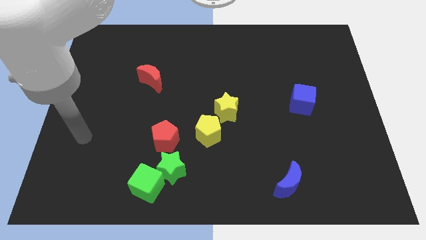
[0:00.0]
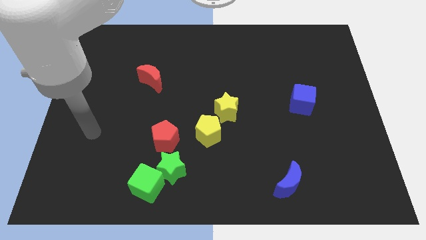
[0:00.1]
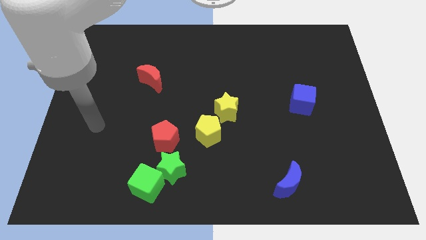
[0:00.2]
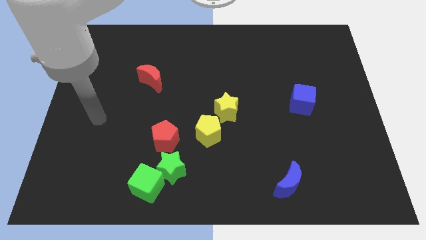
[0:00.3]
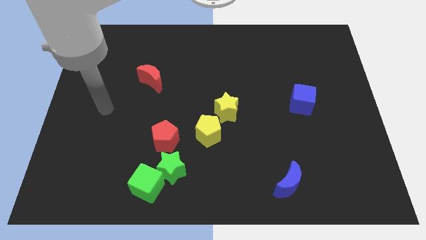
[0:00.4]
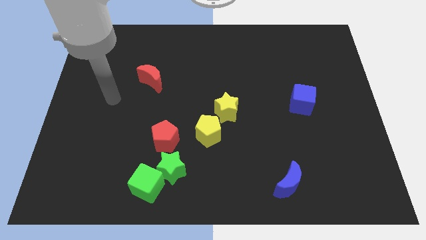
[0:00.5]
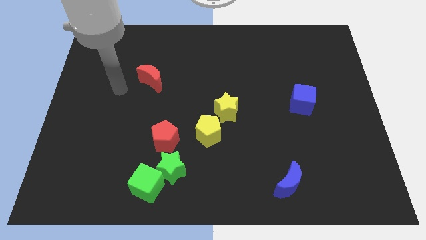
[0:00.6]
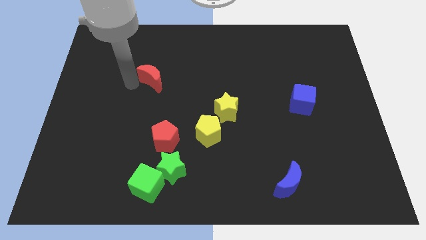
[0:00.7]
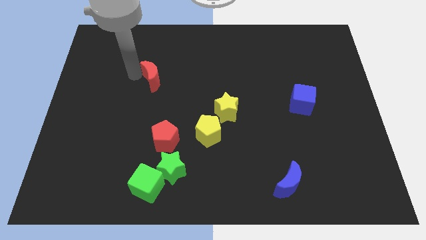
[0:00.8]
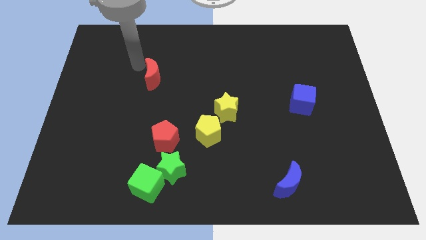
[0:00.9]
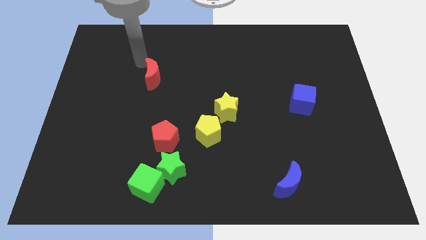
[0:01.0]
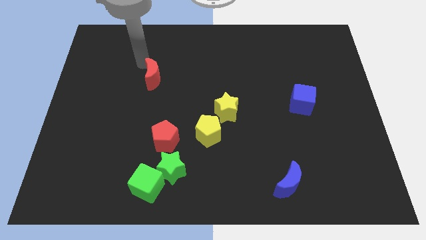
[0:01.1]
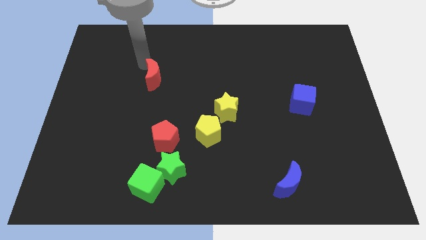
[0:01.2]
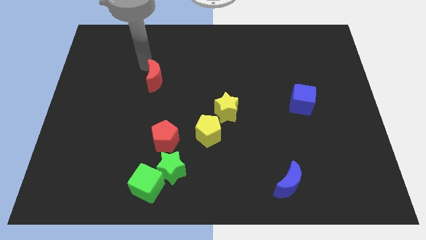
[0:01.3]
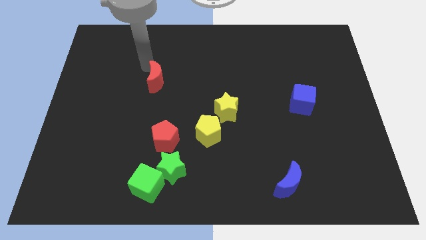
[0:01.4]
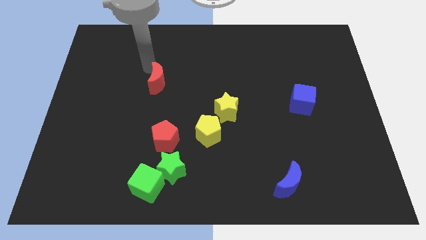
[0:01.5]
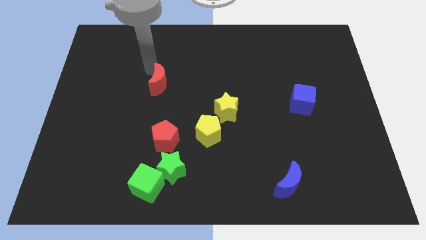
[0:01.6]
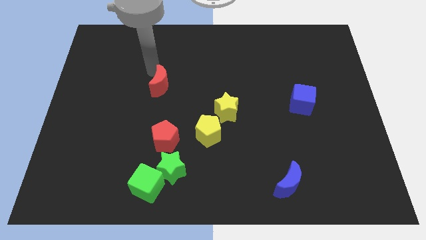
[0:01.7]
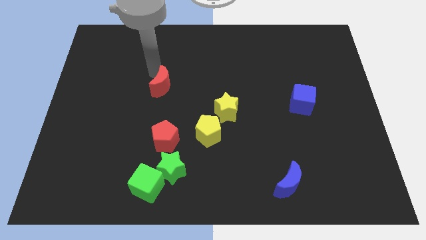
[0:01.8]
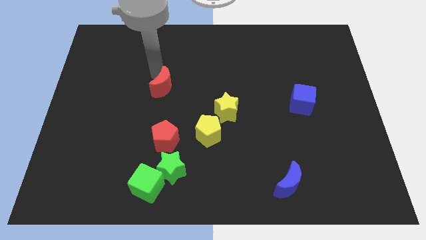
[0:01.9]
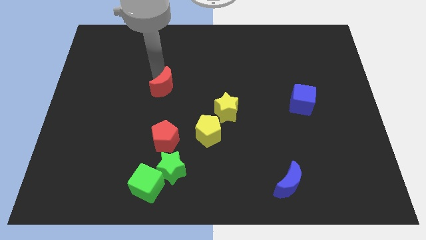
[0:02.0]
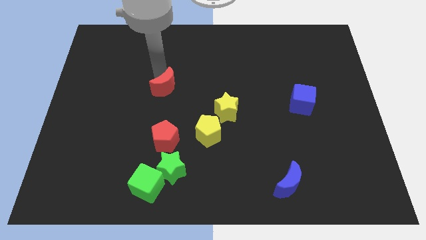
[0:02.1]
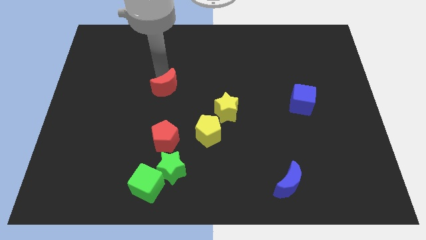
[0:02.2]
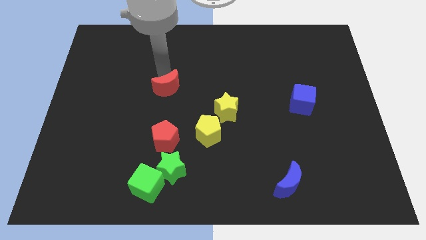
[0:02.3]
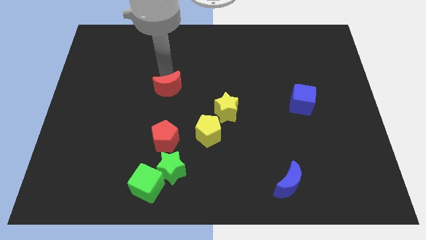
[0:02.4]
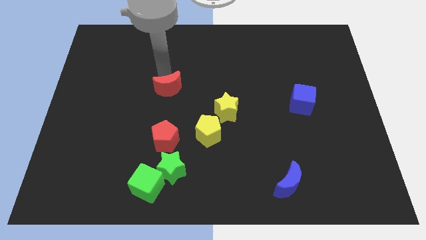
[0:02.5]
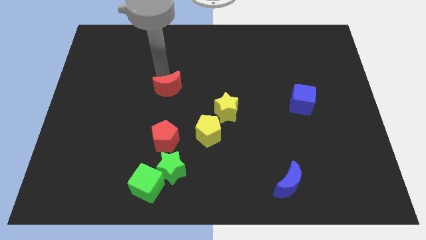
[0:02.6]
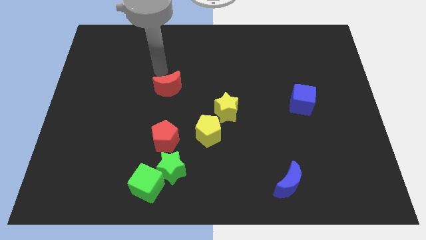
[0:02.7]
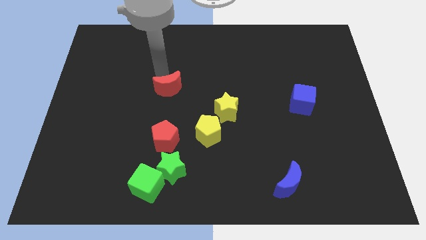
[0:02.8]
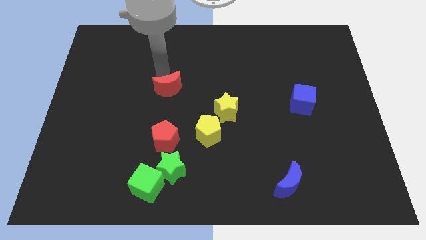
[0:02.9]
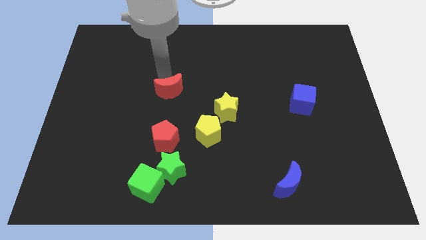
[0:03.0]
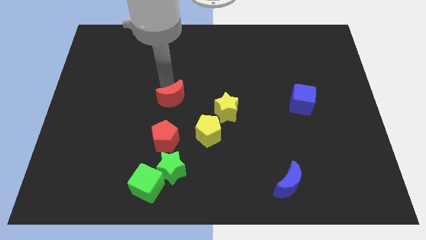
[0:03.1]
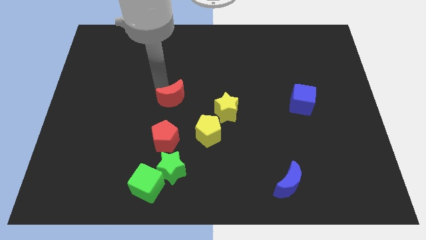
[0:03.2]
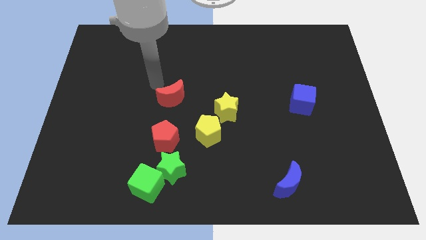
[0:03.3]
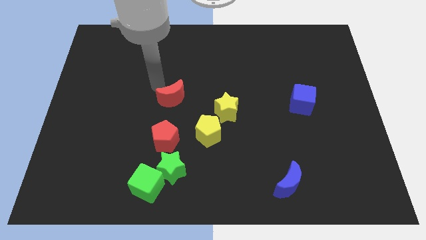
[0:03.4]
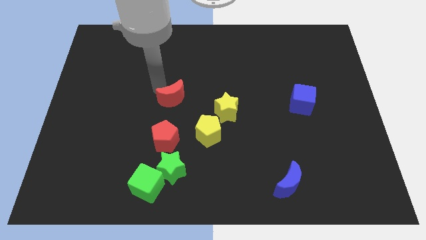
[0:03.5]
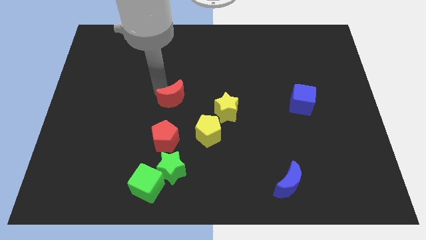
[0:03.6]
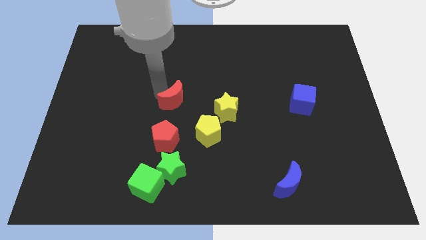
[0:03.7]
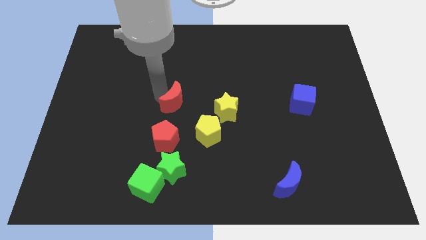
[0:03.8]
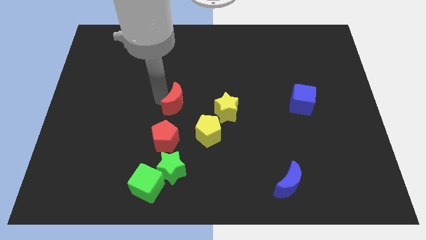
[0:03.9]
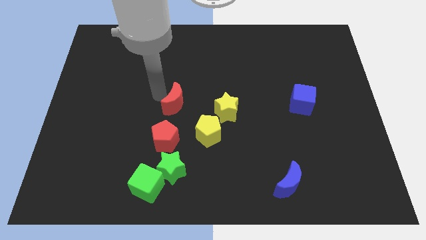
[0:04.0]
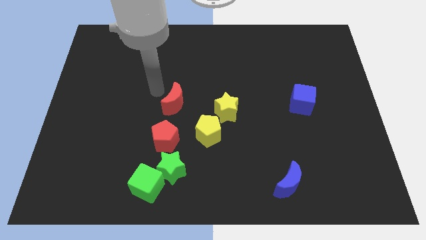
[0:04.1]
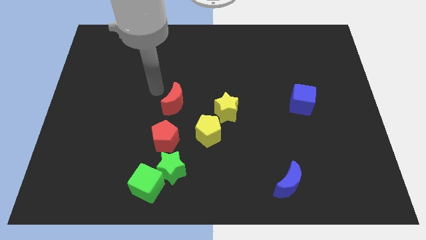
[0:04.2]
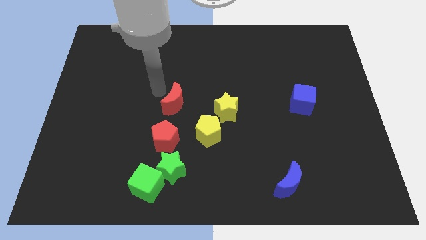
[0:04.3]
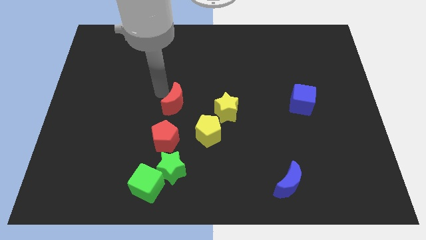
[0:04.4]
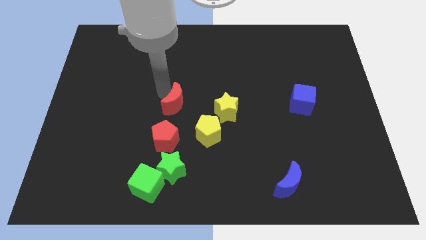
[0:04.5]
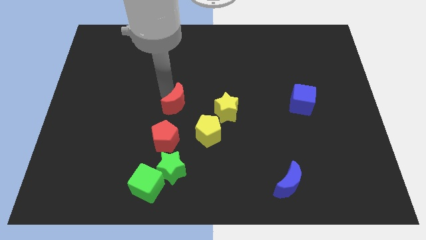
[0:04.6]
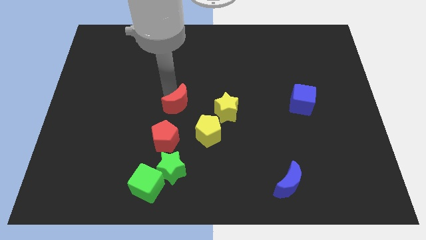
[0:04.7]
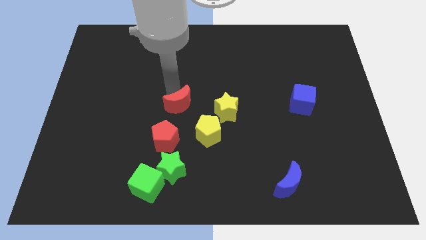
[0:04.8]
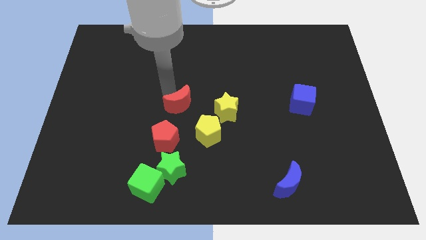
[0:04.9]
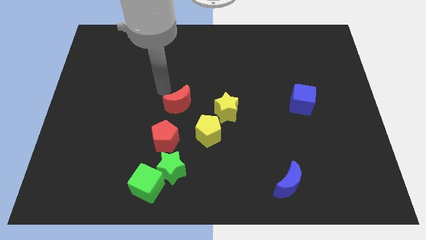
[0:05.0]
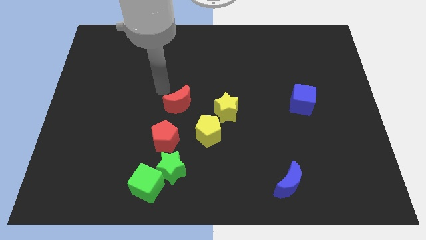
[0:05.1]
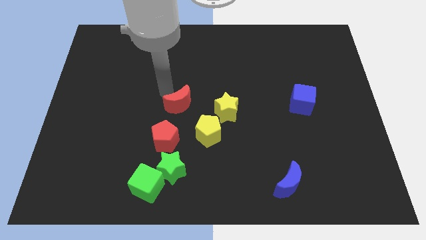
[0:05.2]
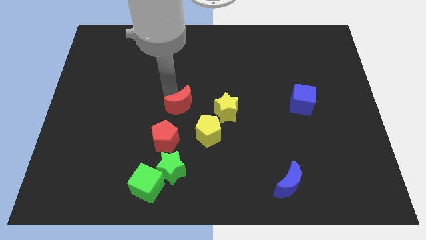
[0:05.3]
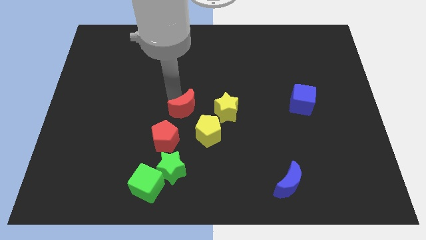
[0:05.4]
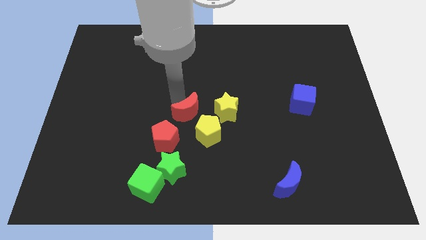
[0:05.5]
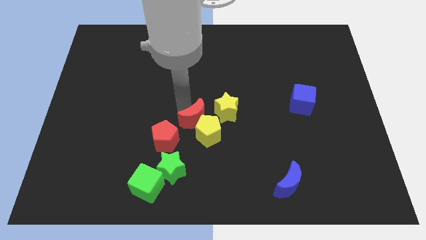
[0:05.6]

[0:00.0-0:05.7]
push the red moon towards the yellow pentagon

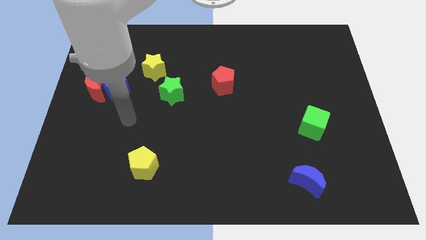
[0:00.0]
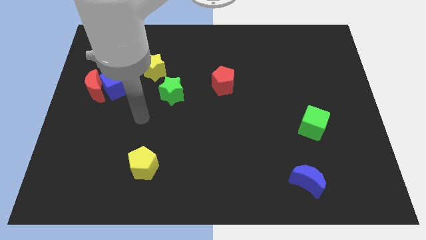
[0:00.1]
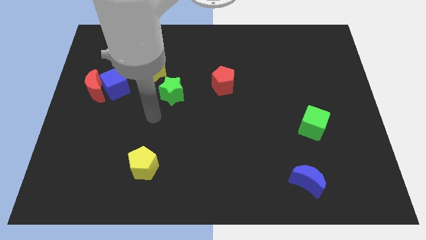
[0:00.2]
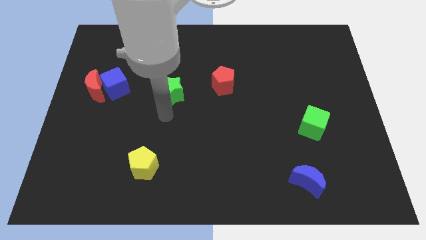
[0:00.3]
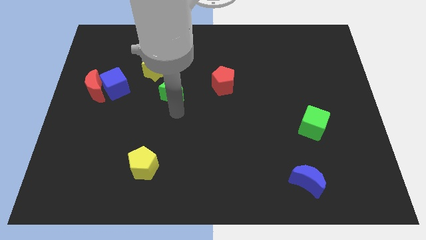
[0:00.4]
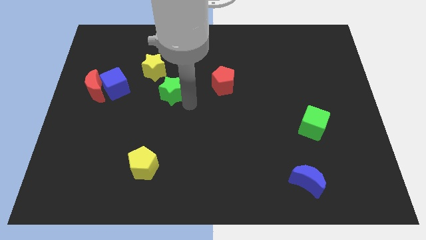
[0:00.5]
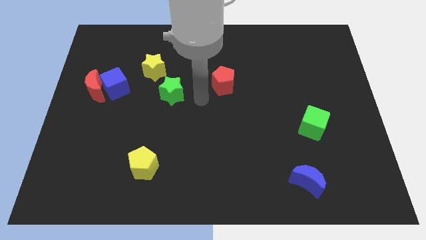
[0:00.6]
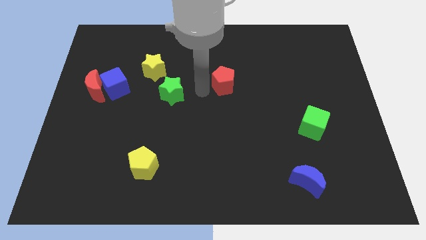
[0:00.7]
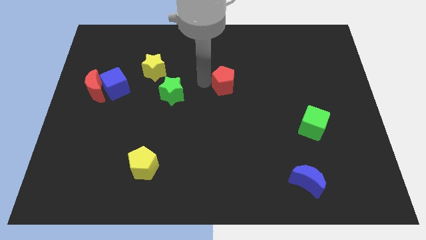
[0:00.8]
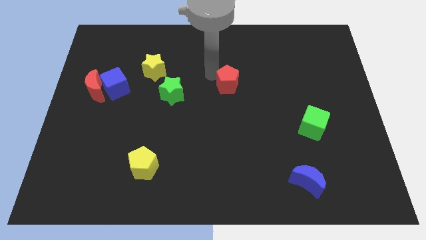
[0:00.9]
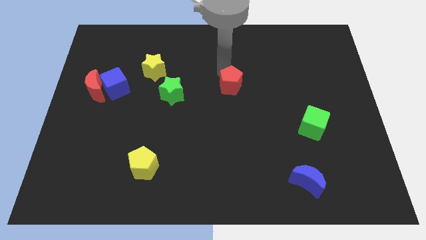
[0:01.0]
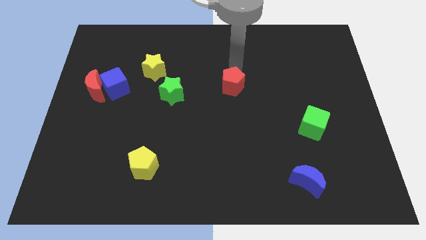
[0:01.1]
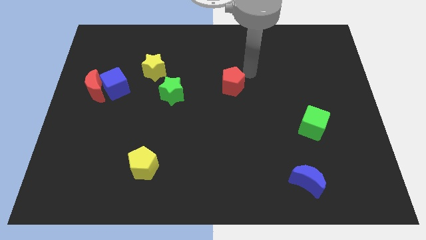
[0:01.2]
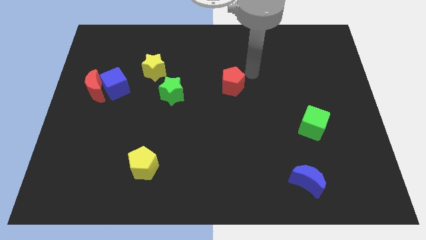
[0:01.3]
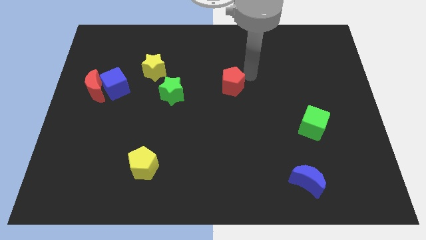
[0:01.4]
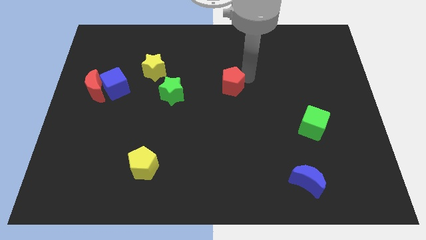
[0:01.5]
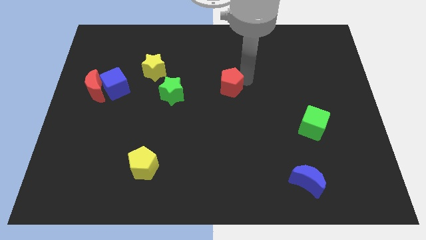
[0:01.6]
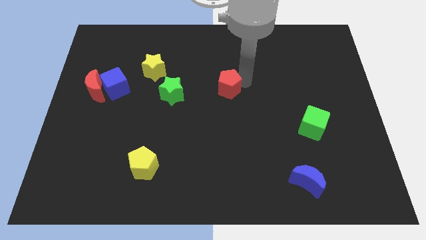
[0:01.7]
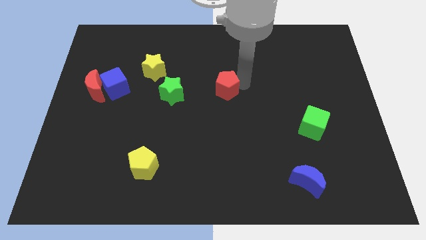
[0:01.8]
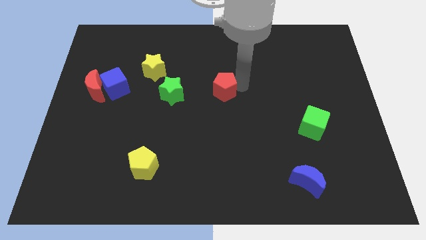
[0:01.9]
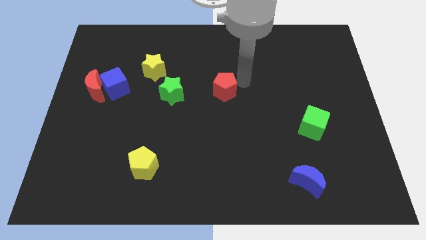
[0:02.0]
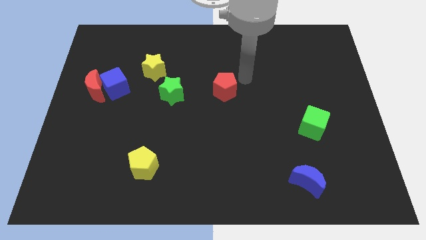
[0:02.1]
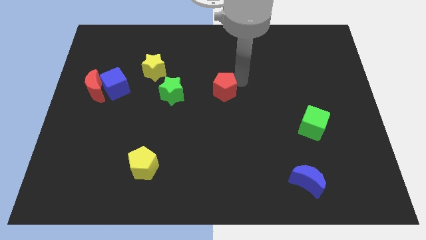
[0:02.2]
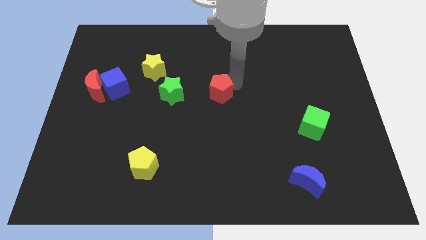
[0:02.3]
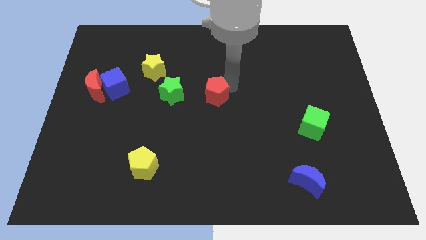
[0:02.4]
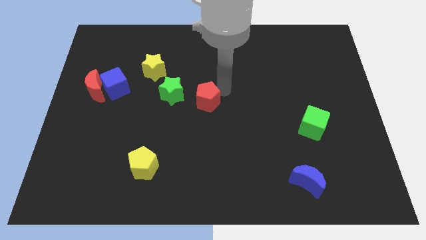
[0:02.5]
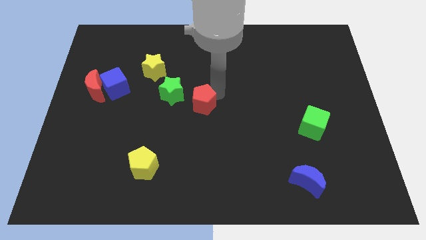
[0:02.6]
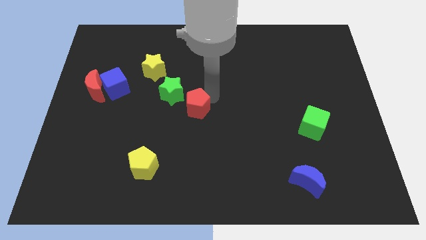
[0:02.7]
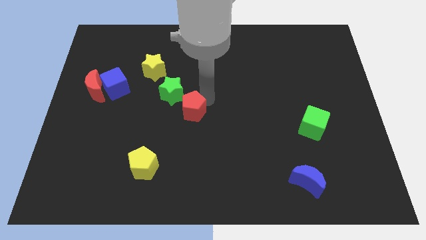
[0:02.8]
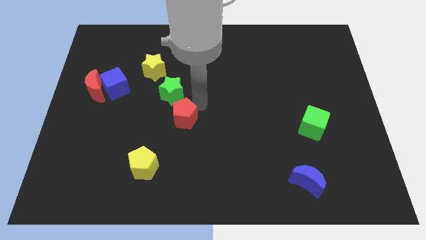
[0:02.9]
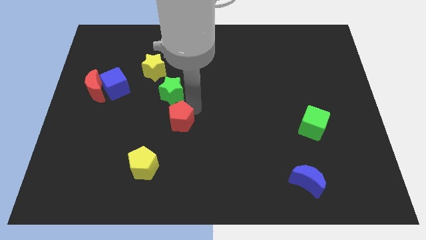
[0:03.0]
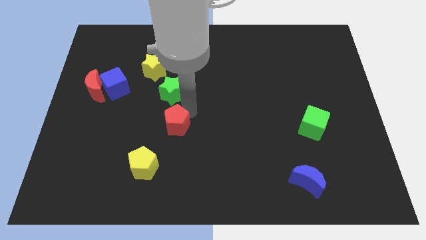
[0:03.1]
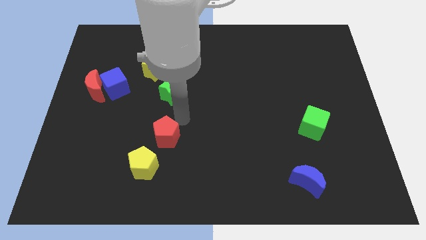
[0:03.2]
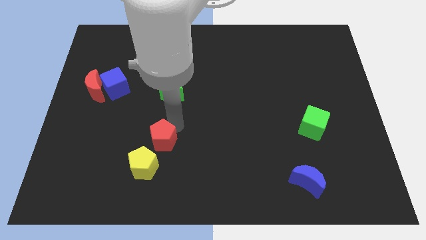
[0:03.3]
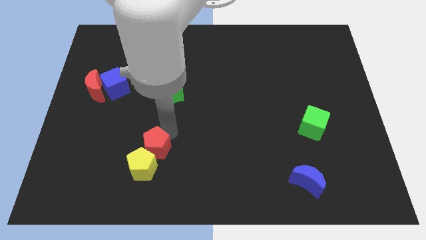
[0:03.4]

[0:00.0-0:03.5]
put the red pentagon towards the yellow pentagon
